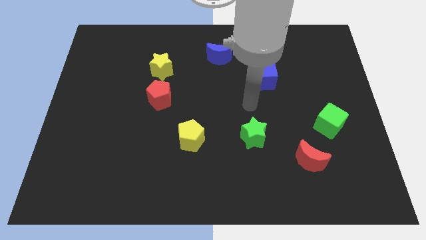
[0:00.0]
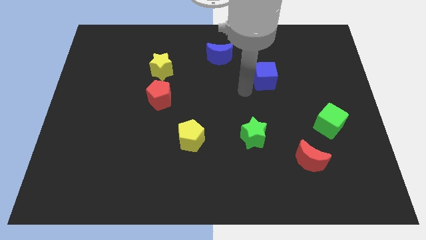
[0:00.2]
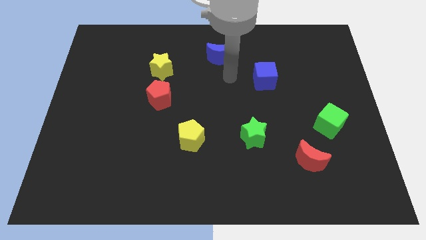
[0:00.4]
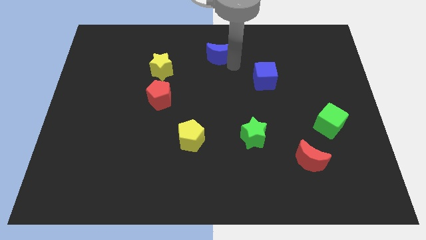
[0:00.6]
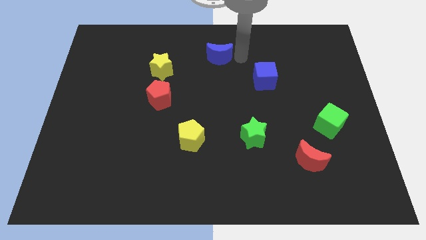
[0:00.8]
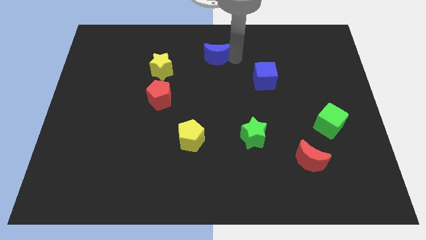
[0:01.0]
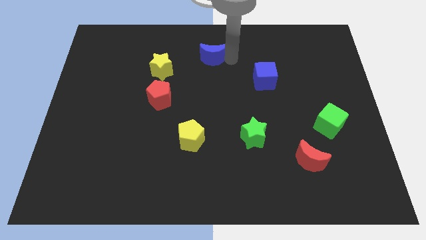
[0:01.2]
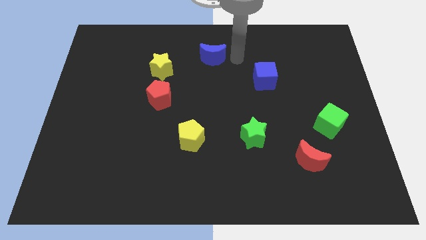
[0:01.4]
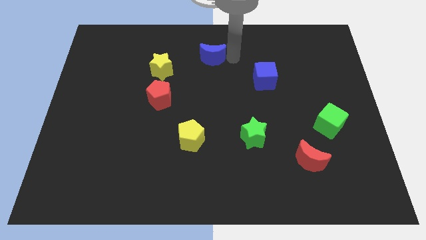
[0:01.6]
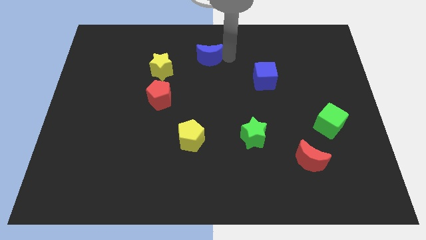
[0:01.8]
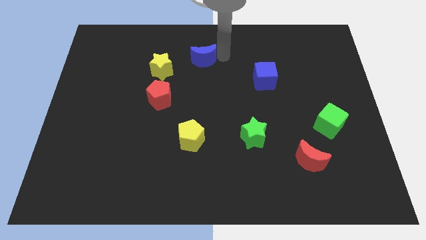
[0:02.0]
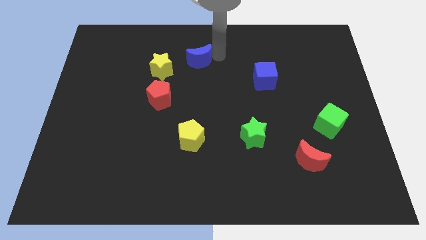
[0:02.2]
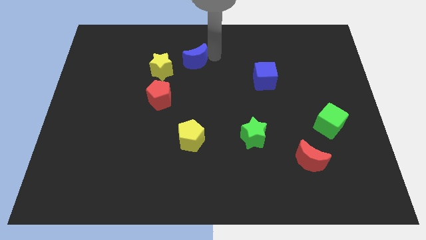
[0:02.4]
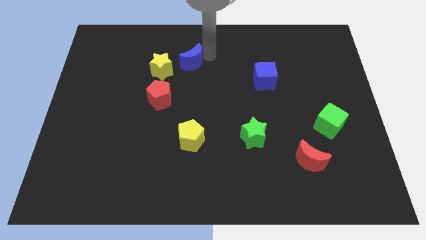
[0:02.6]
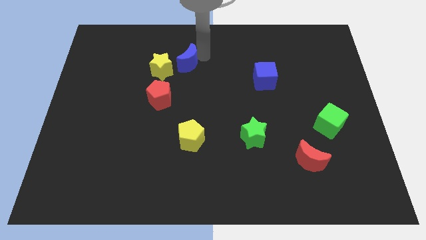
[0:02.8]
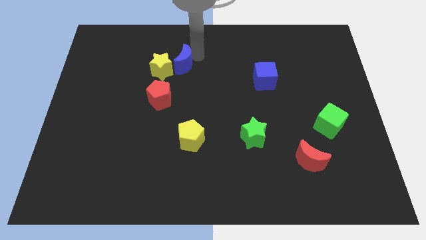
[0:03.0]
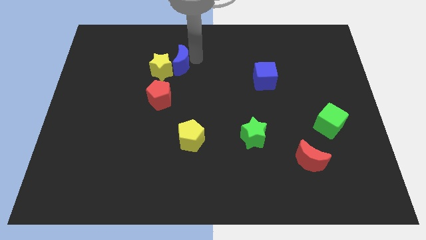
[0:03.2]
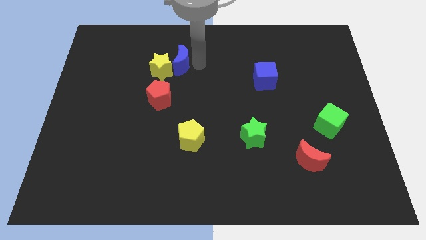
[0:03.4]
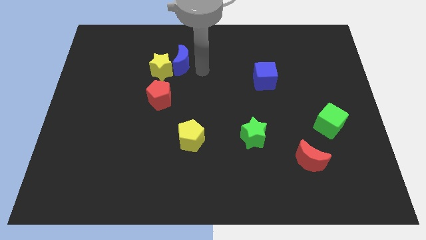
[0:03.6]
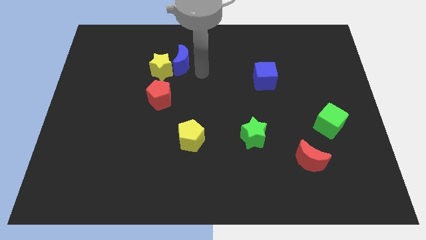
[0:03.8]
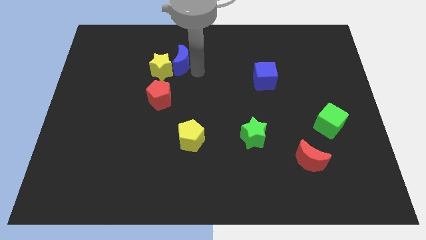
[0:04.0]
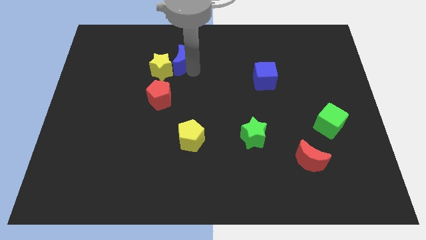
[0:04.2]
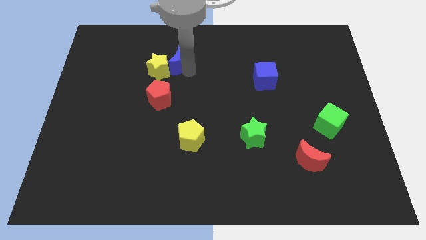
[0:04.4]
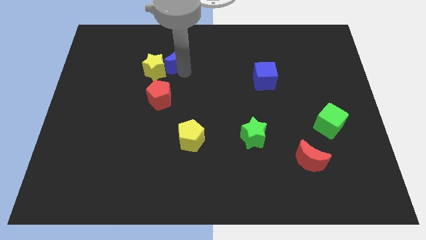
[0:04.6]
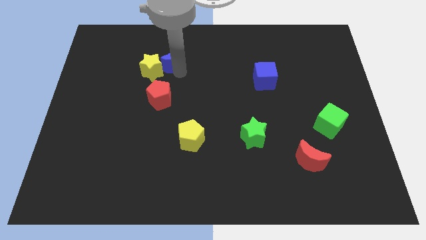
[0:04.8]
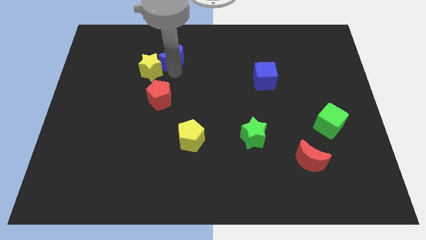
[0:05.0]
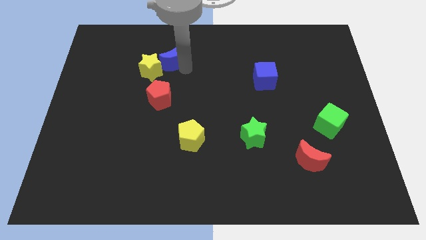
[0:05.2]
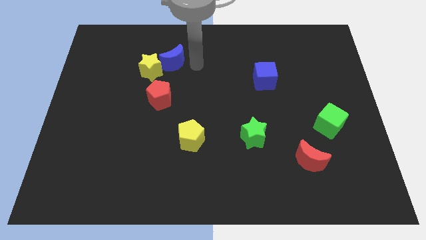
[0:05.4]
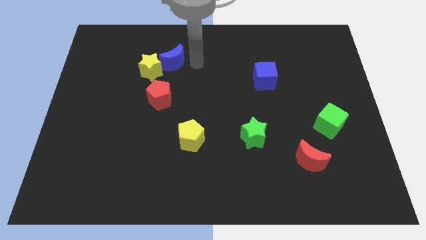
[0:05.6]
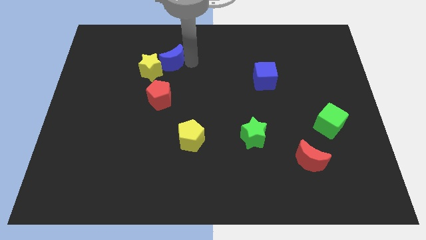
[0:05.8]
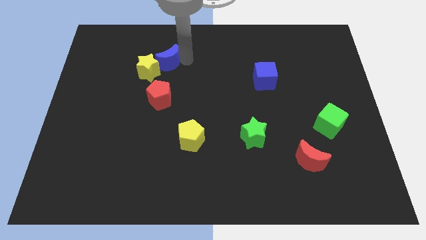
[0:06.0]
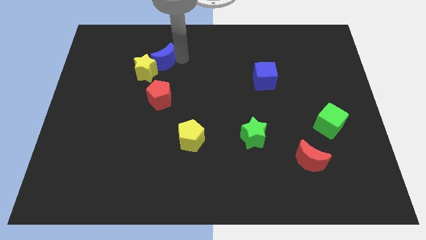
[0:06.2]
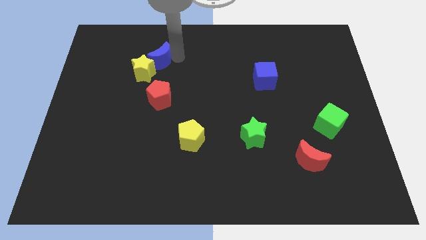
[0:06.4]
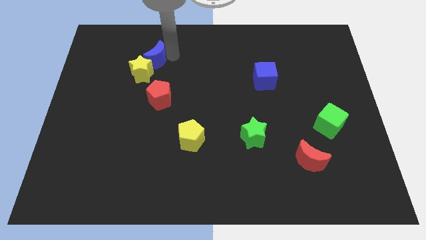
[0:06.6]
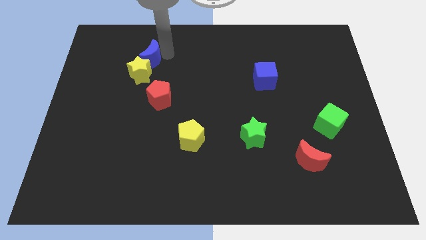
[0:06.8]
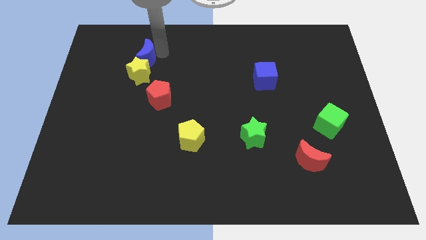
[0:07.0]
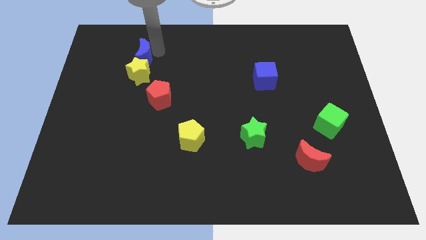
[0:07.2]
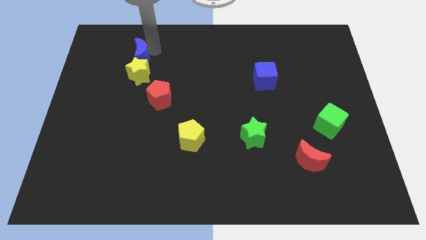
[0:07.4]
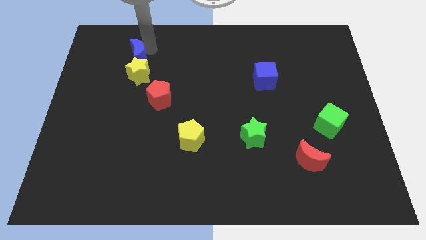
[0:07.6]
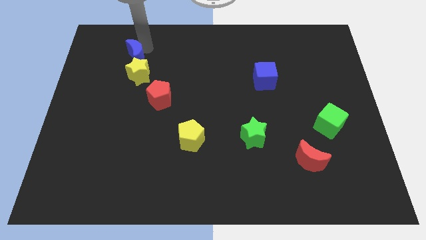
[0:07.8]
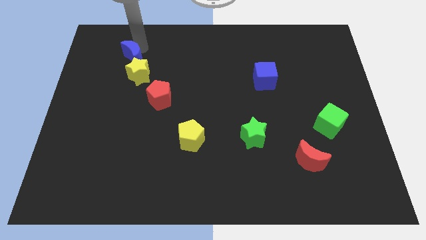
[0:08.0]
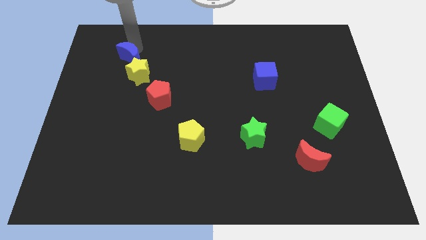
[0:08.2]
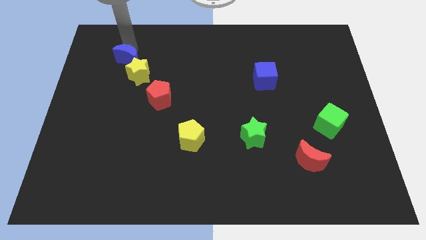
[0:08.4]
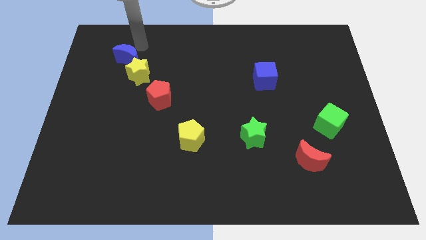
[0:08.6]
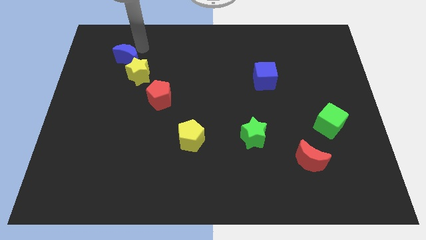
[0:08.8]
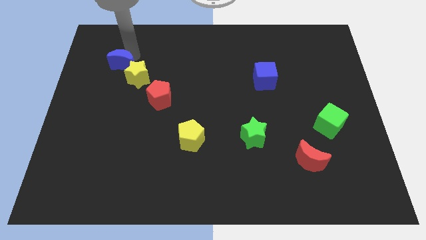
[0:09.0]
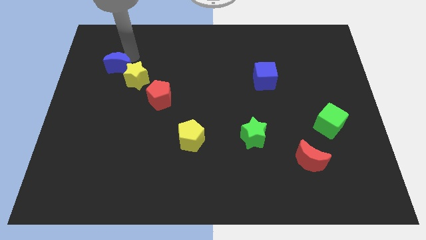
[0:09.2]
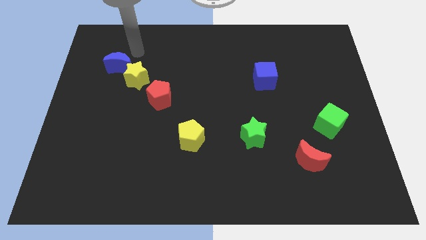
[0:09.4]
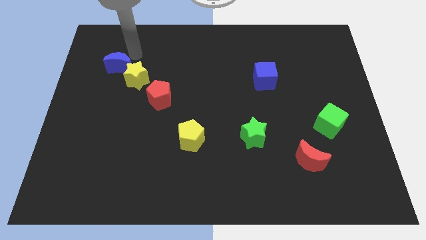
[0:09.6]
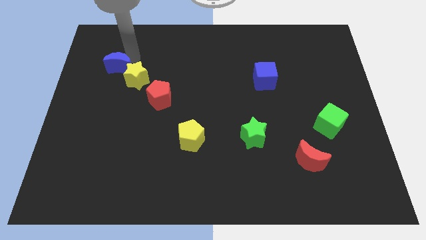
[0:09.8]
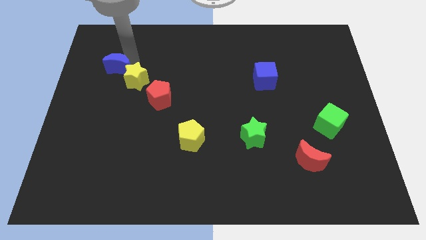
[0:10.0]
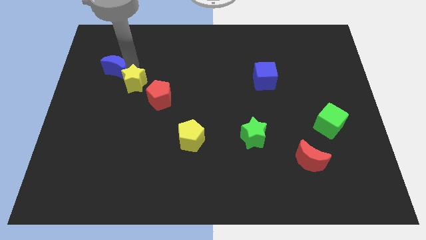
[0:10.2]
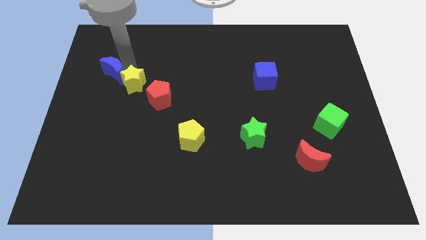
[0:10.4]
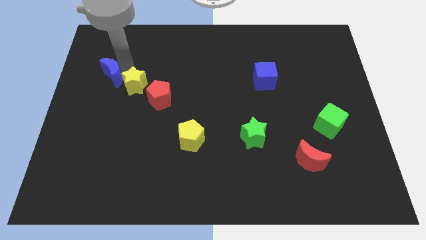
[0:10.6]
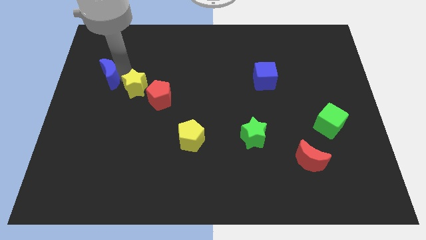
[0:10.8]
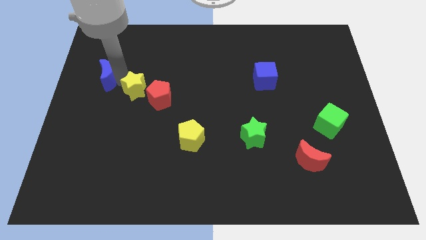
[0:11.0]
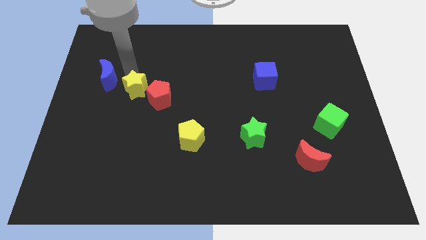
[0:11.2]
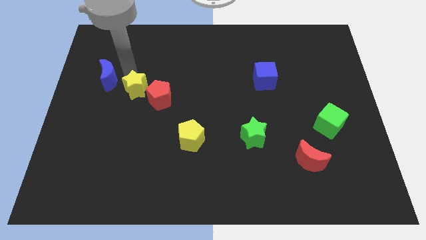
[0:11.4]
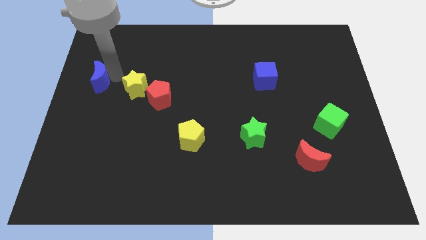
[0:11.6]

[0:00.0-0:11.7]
move the blue moon to the left side of the board
